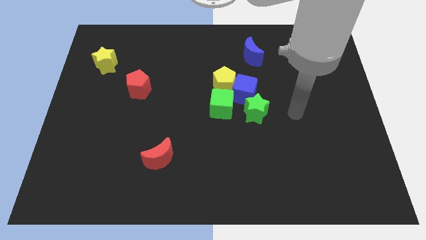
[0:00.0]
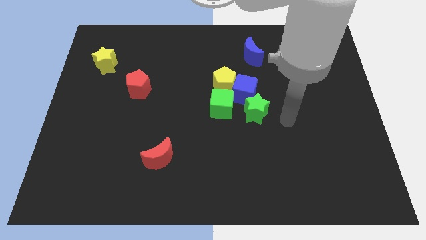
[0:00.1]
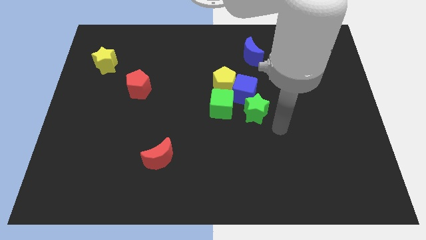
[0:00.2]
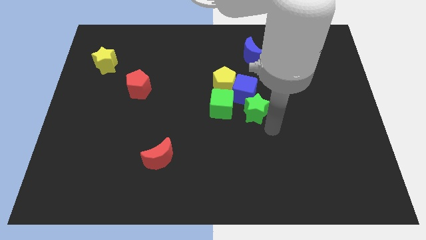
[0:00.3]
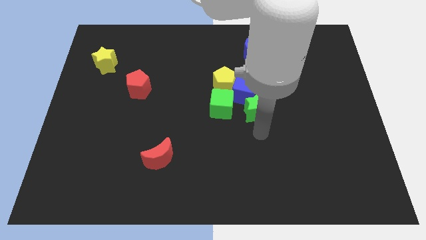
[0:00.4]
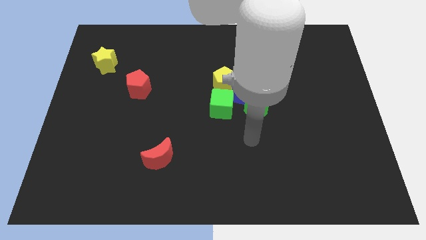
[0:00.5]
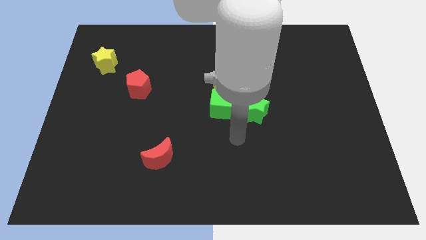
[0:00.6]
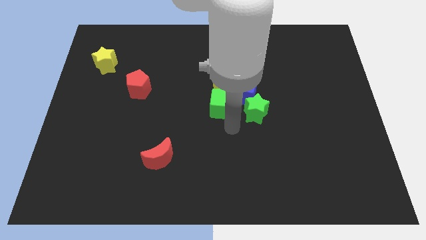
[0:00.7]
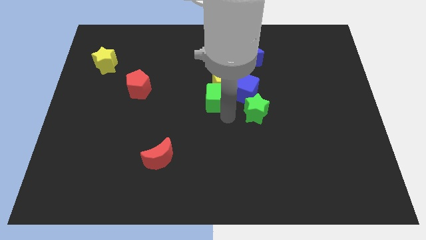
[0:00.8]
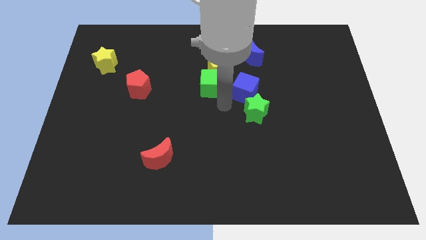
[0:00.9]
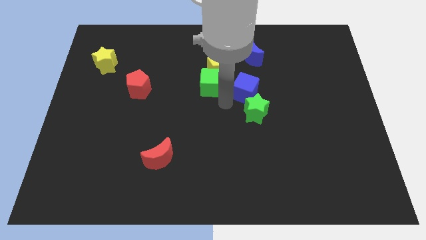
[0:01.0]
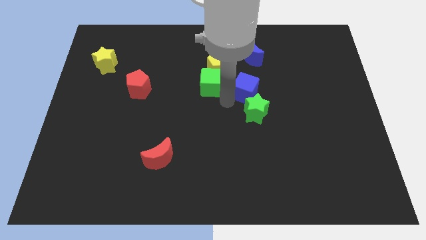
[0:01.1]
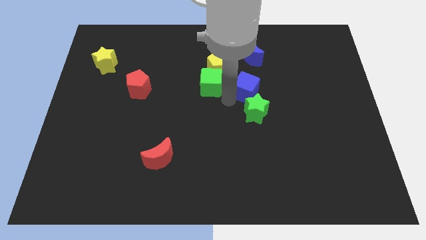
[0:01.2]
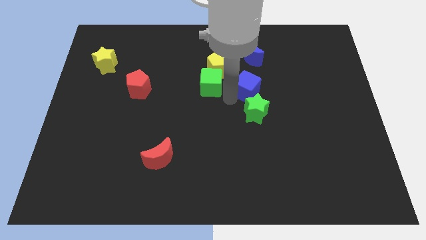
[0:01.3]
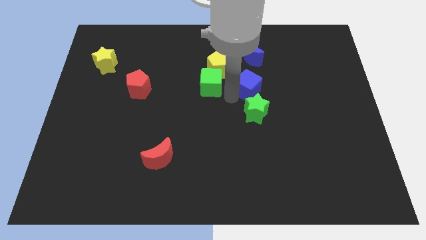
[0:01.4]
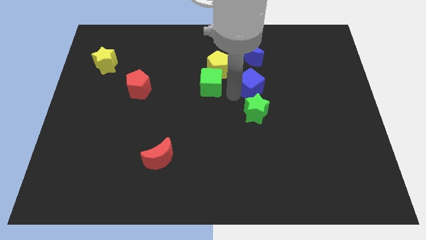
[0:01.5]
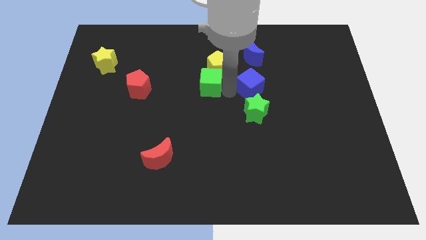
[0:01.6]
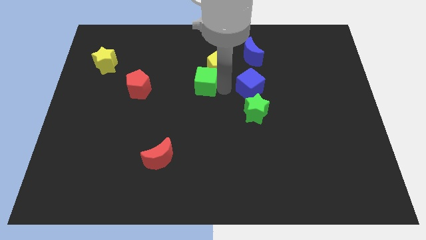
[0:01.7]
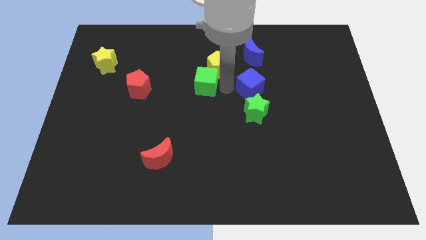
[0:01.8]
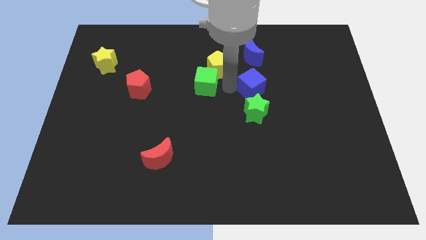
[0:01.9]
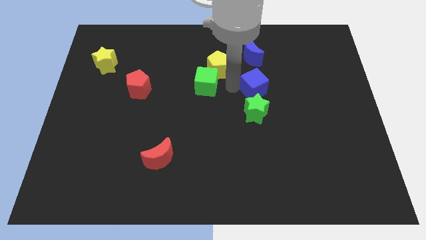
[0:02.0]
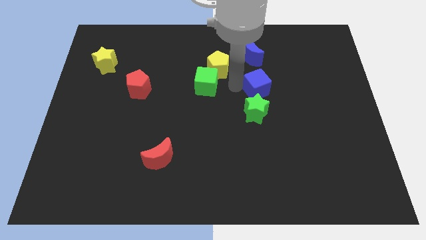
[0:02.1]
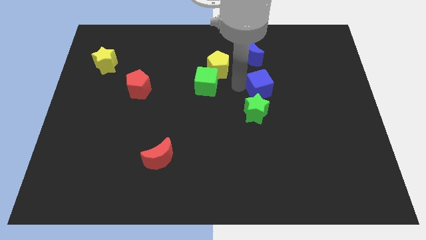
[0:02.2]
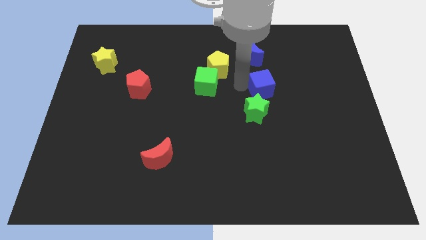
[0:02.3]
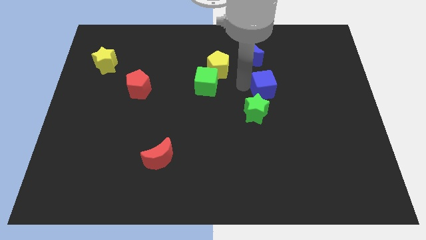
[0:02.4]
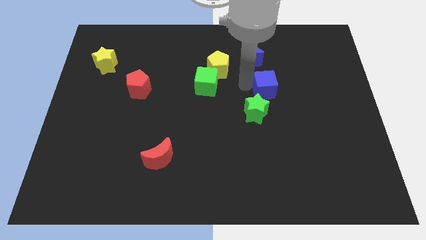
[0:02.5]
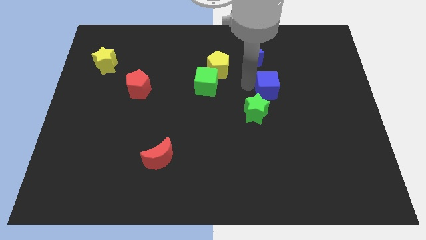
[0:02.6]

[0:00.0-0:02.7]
separate the blue cube from the group of blocks

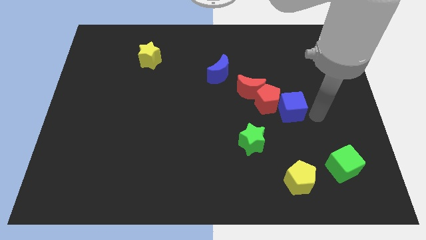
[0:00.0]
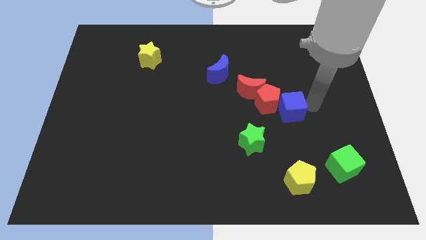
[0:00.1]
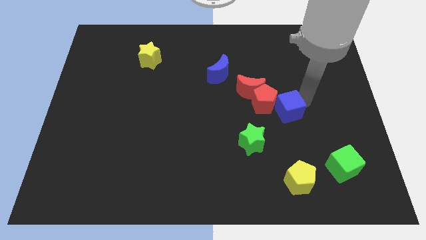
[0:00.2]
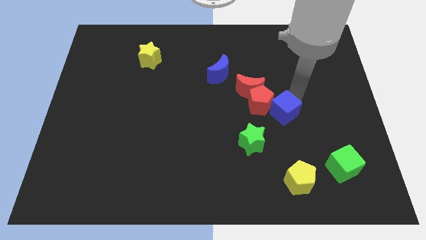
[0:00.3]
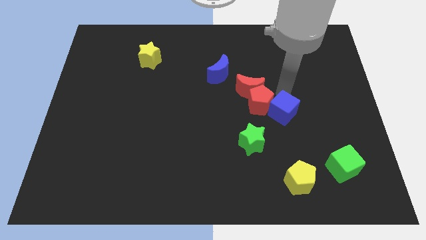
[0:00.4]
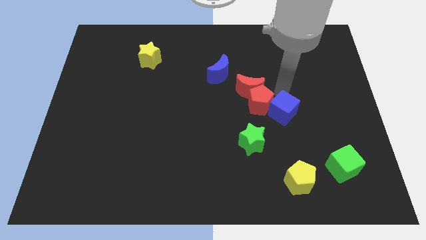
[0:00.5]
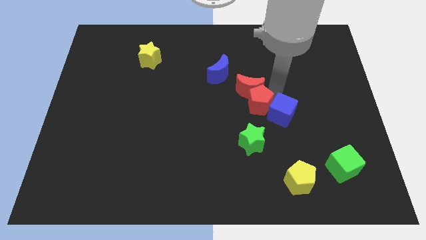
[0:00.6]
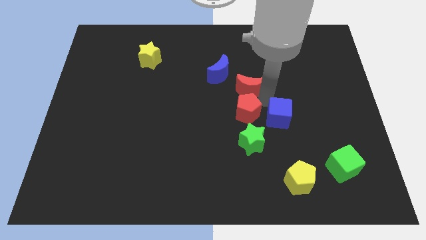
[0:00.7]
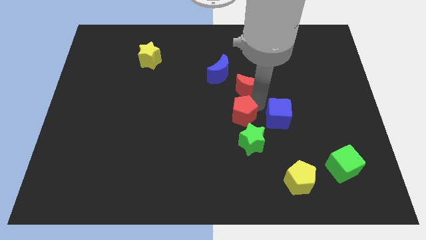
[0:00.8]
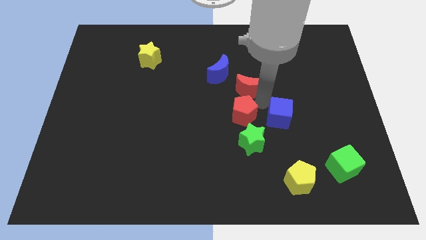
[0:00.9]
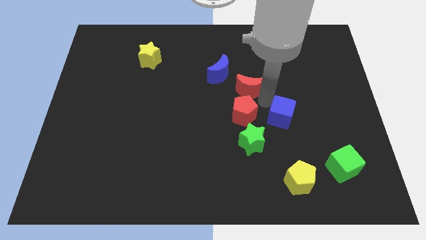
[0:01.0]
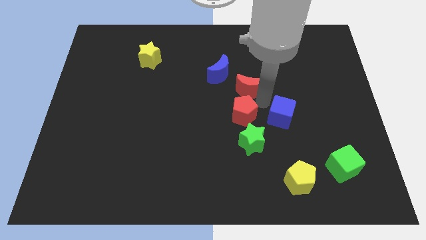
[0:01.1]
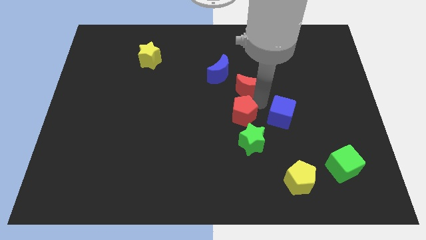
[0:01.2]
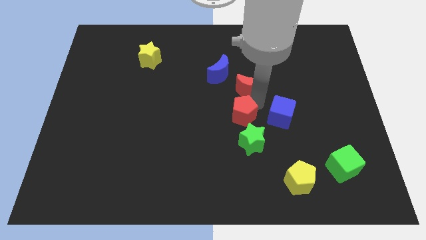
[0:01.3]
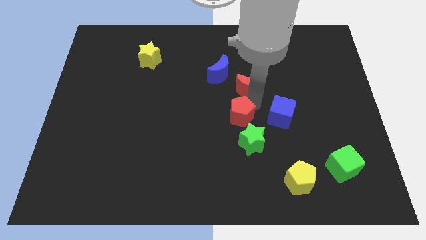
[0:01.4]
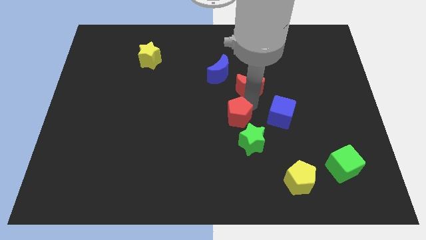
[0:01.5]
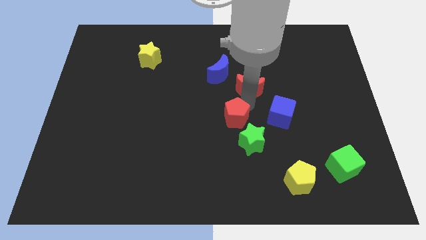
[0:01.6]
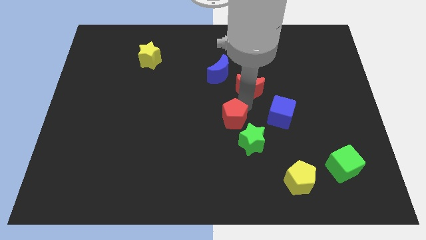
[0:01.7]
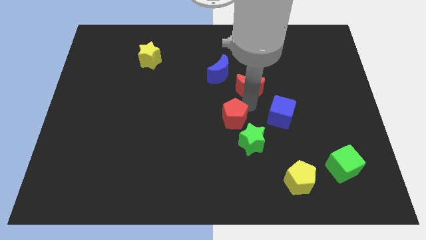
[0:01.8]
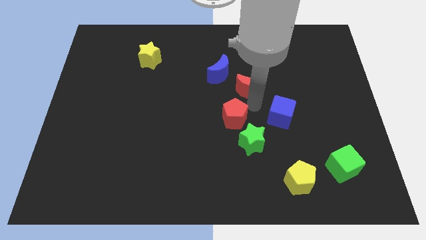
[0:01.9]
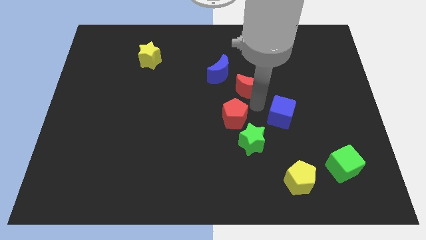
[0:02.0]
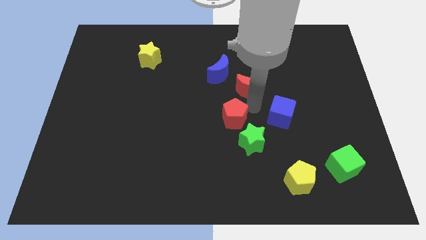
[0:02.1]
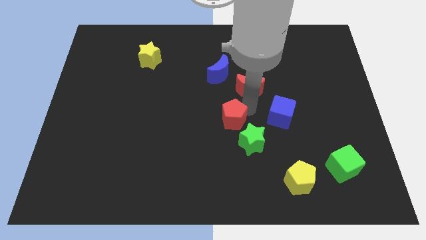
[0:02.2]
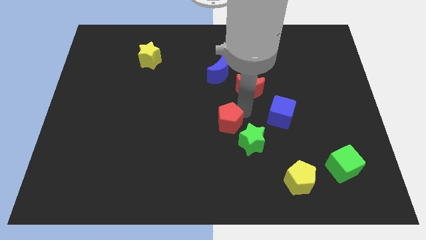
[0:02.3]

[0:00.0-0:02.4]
pull the red pentagon apart from the red moon and blue cube

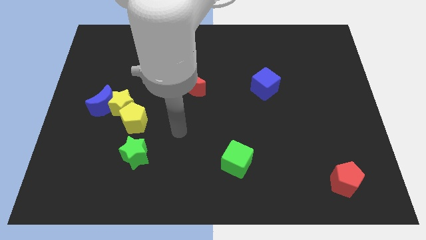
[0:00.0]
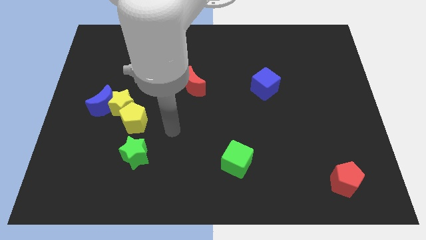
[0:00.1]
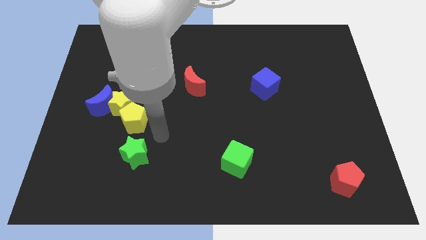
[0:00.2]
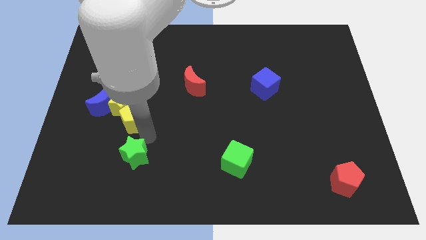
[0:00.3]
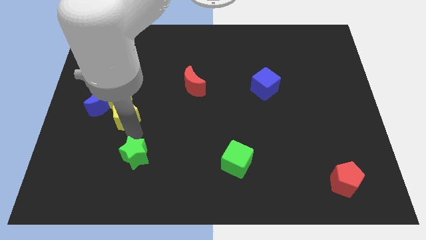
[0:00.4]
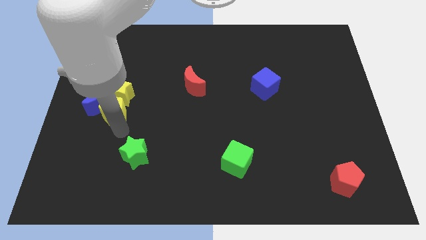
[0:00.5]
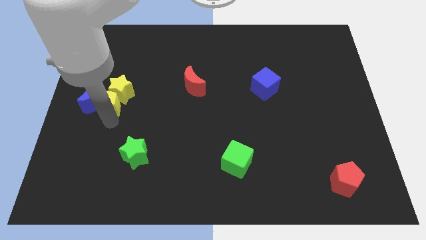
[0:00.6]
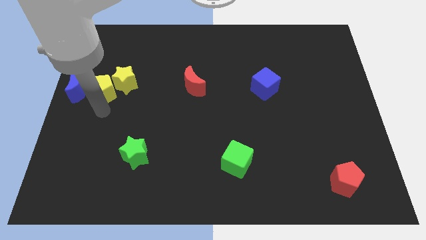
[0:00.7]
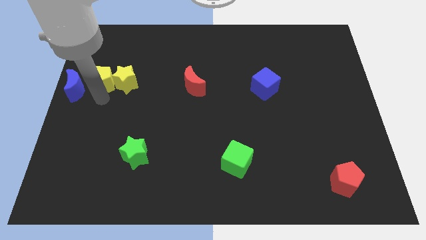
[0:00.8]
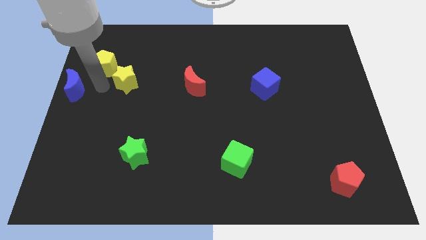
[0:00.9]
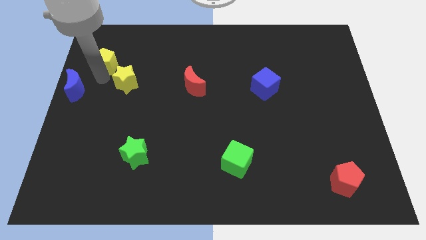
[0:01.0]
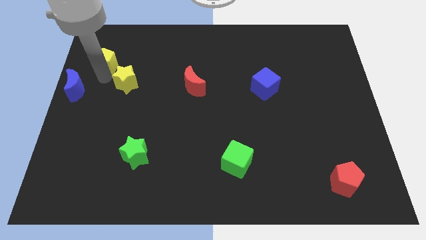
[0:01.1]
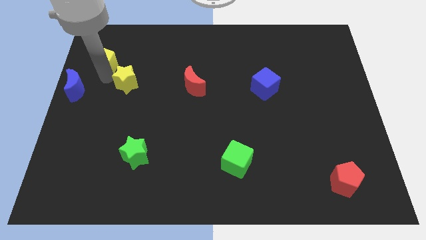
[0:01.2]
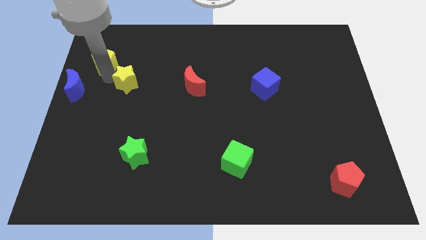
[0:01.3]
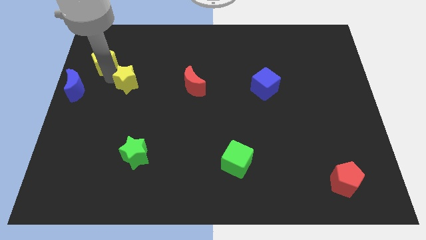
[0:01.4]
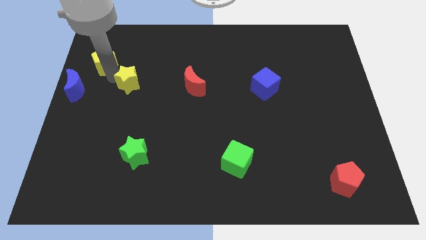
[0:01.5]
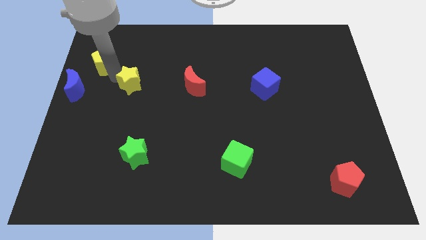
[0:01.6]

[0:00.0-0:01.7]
pull the yellow star apart from the blue moon and yellow pentagon

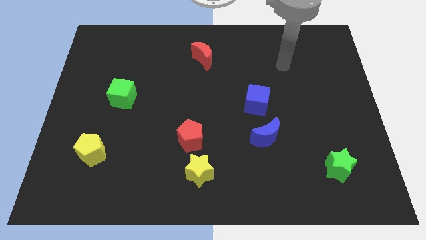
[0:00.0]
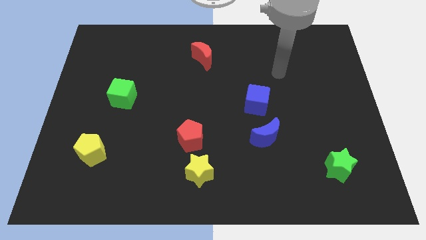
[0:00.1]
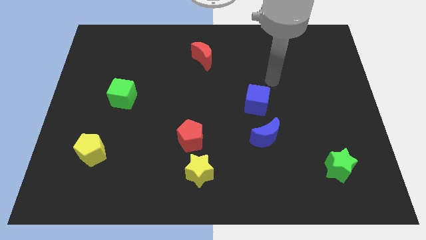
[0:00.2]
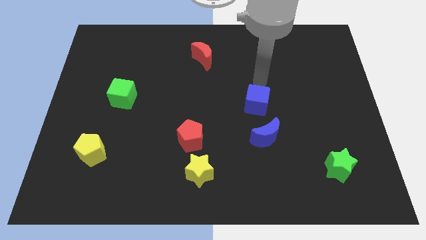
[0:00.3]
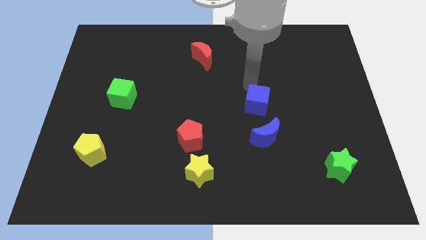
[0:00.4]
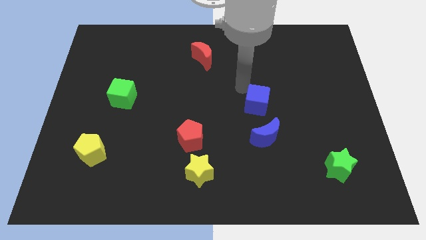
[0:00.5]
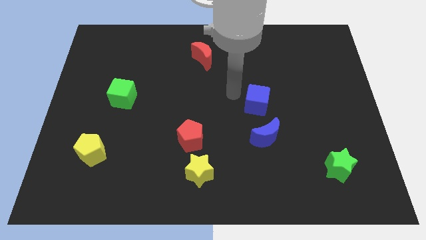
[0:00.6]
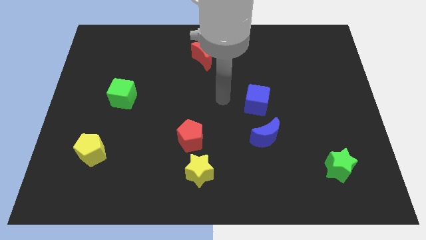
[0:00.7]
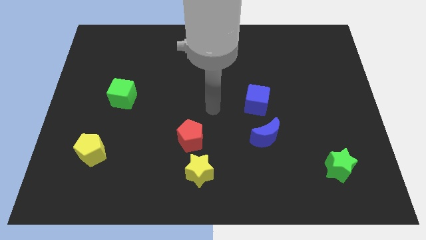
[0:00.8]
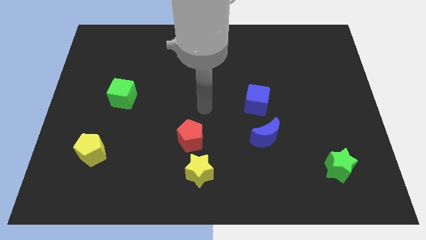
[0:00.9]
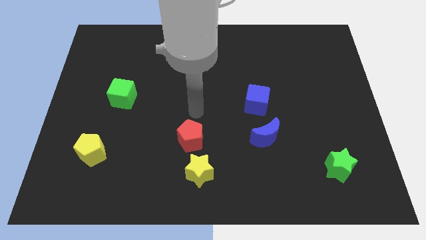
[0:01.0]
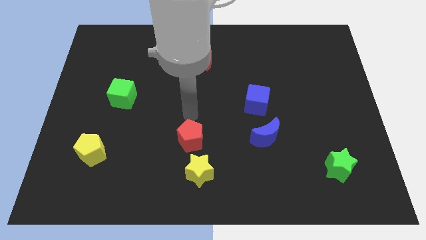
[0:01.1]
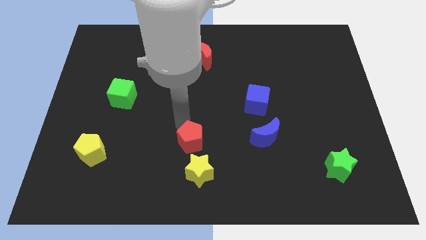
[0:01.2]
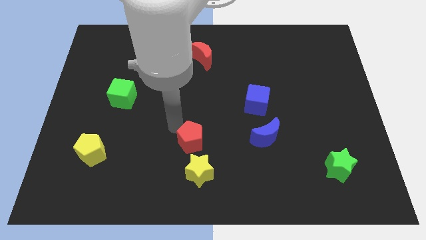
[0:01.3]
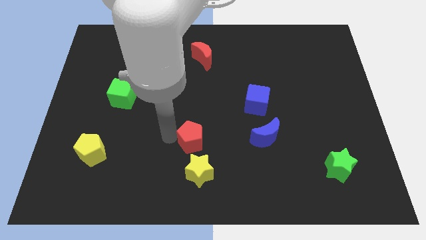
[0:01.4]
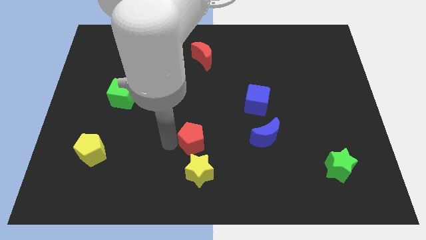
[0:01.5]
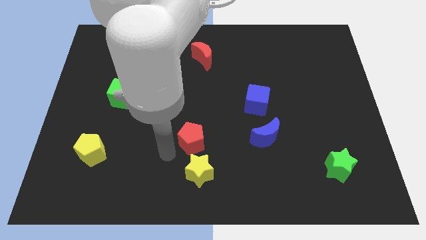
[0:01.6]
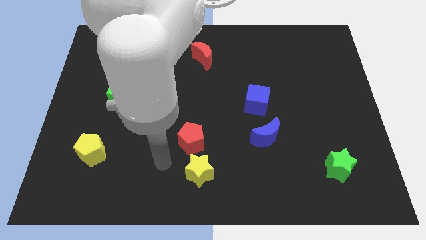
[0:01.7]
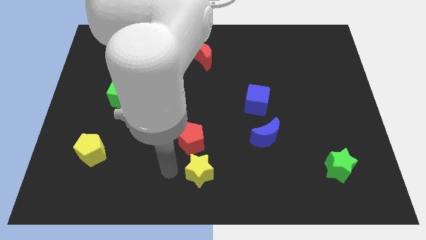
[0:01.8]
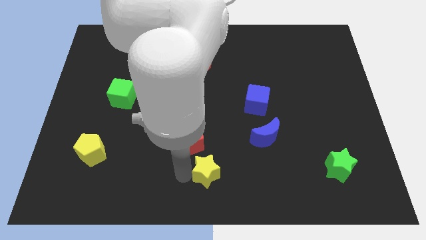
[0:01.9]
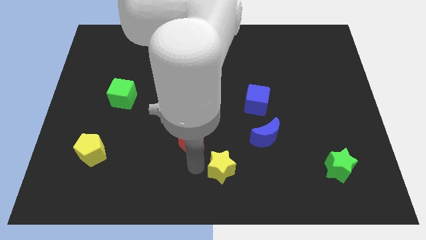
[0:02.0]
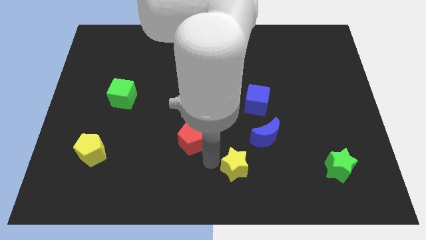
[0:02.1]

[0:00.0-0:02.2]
move the red pentagon away from the yellow star

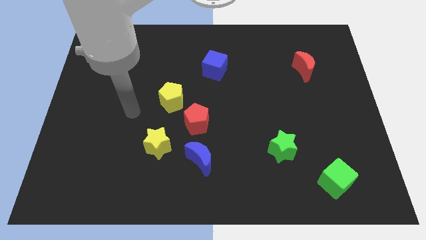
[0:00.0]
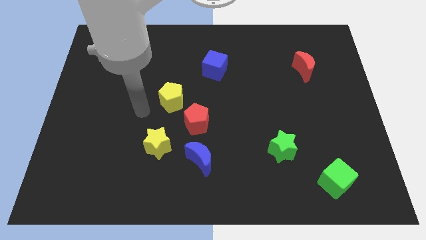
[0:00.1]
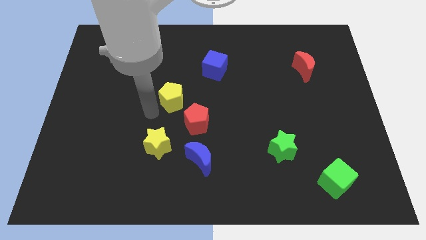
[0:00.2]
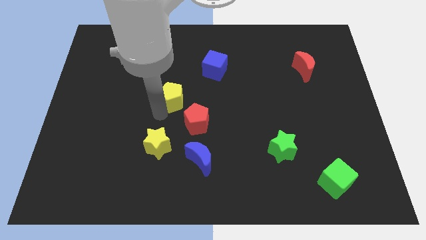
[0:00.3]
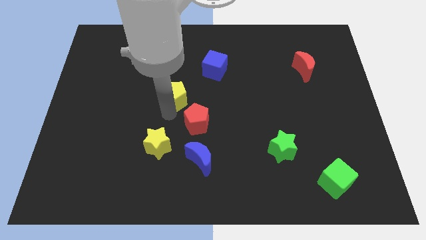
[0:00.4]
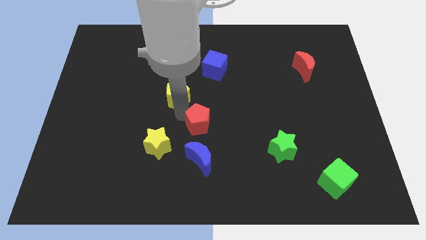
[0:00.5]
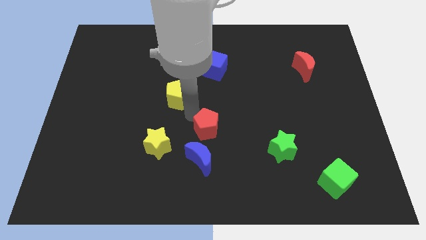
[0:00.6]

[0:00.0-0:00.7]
pull the yellow pentagon apart from the red pentagon
